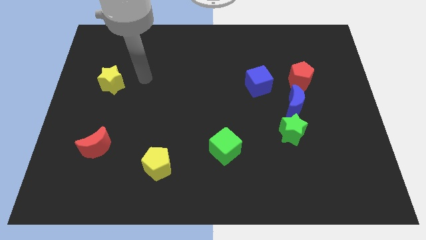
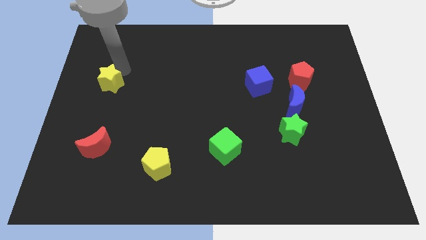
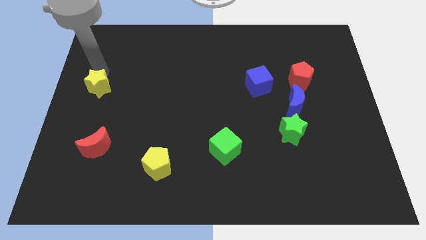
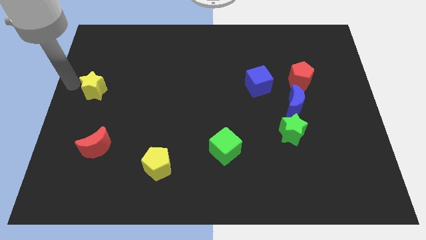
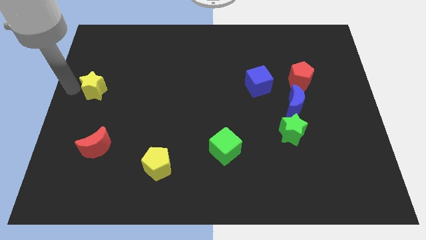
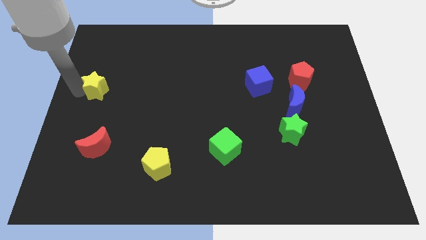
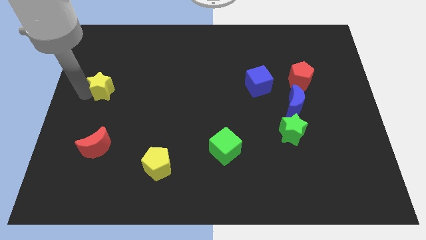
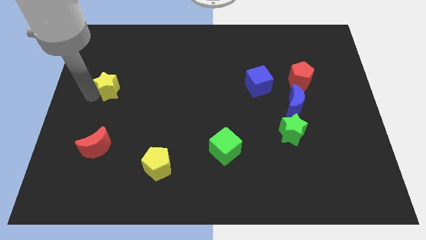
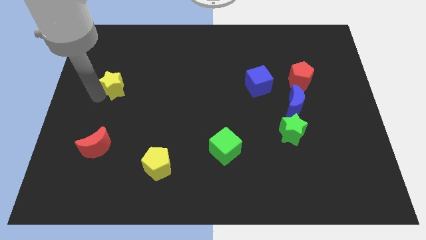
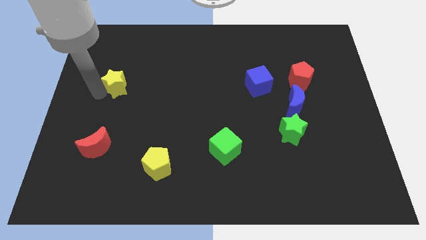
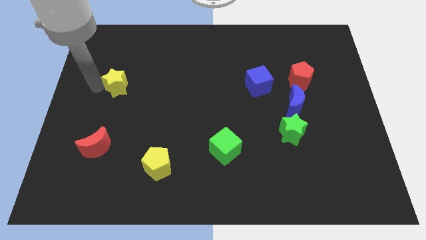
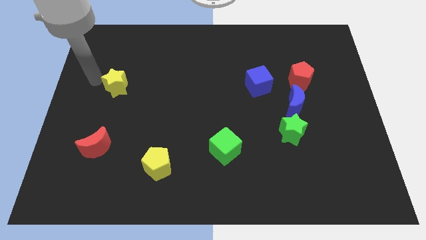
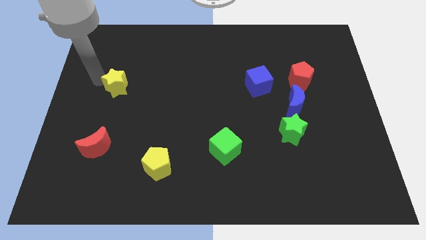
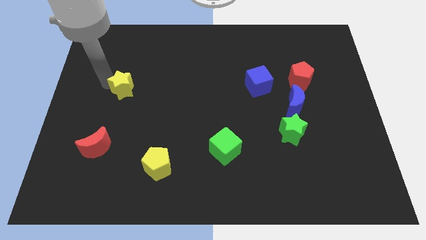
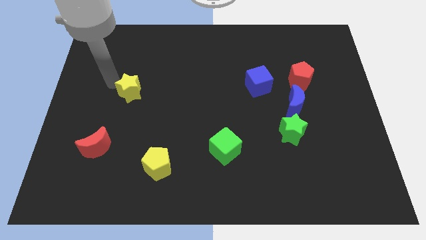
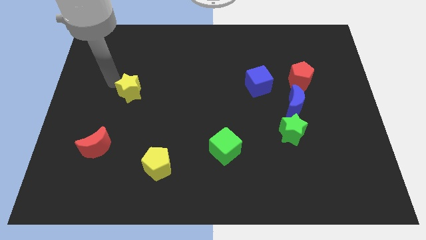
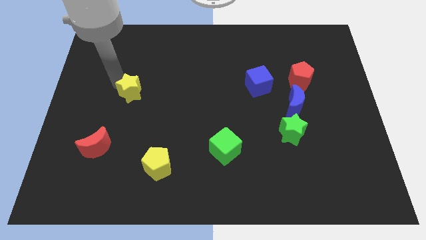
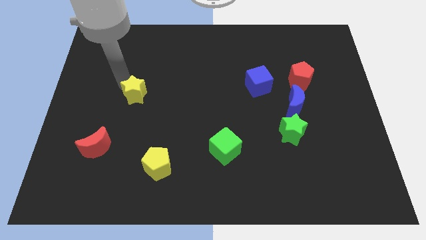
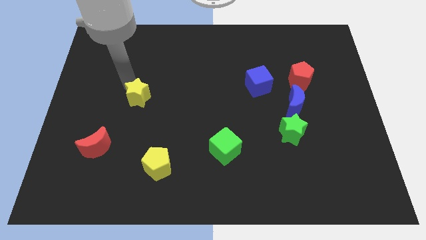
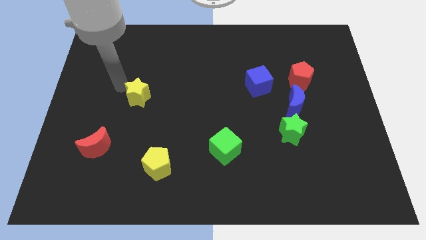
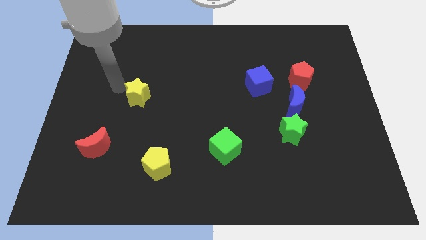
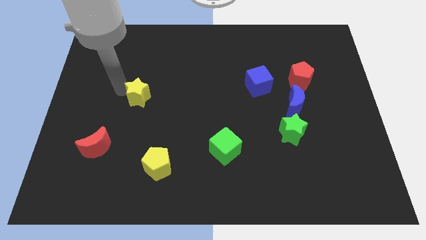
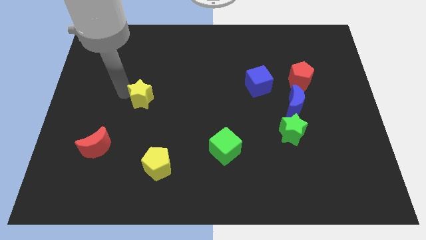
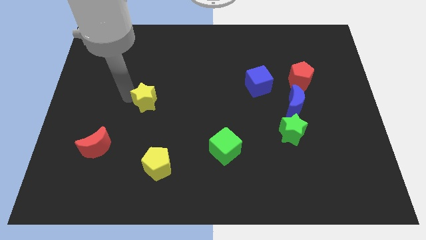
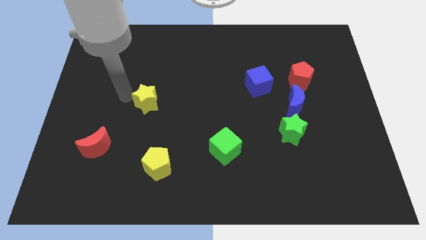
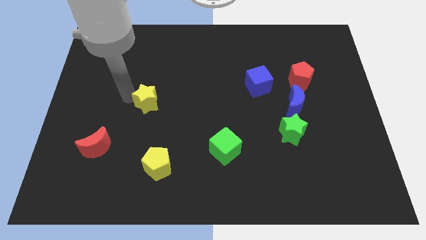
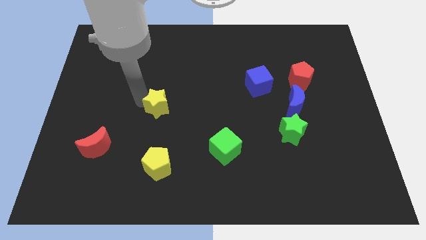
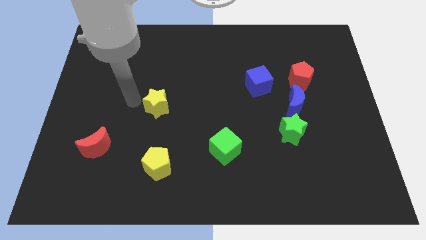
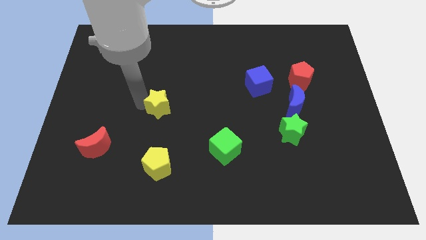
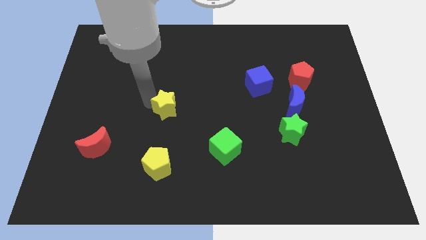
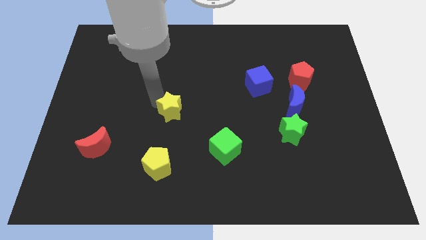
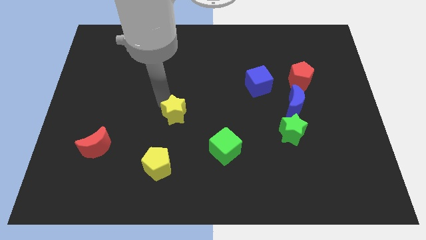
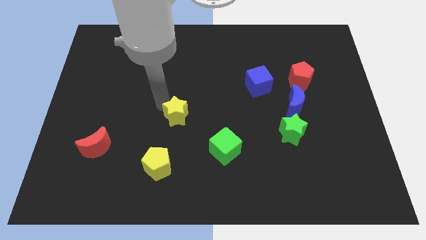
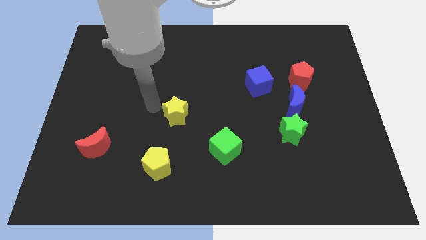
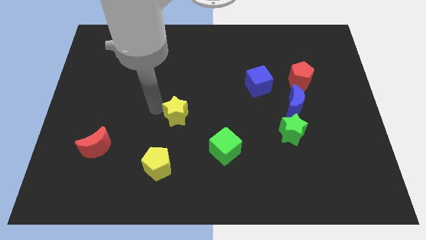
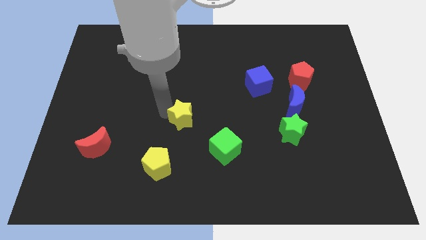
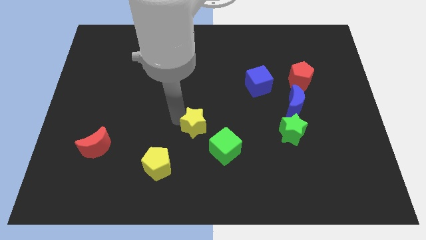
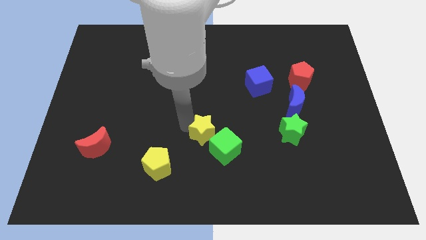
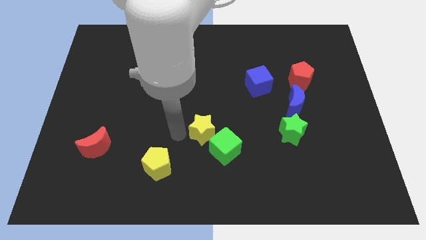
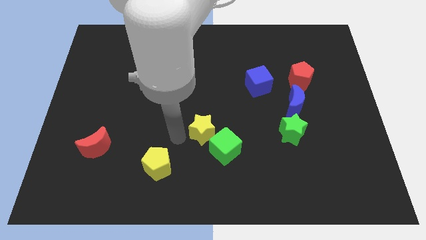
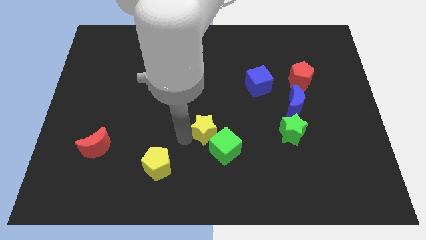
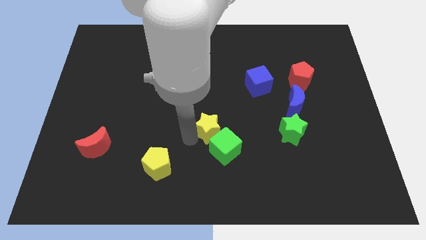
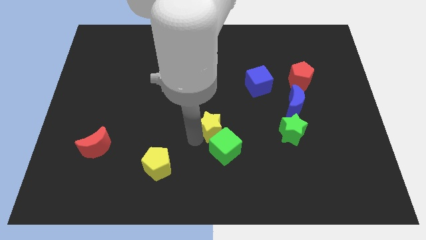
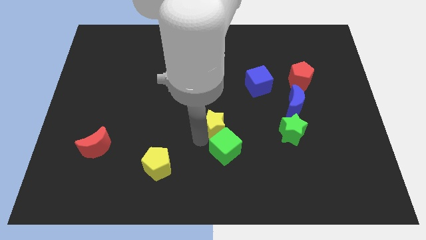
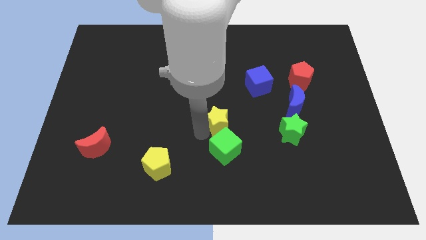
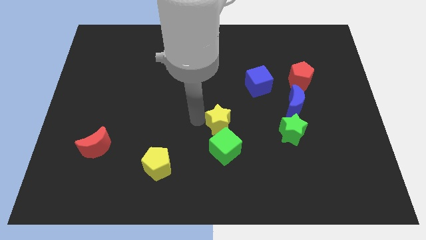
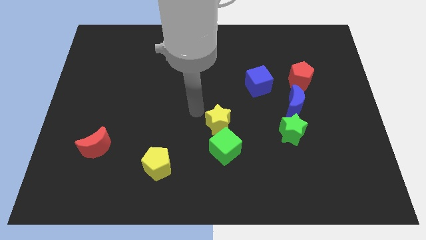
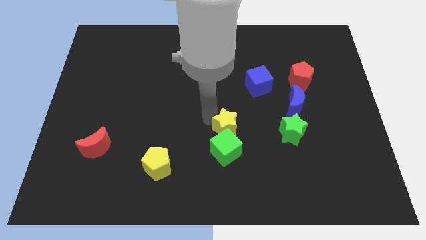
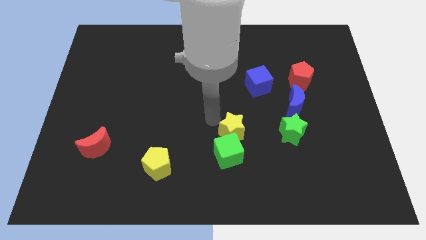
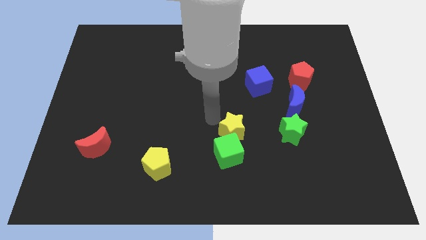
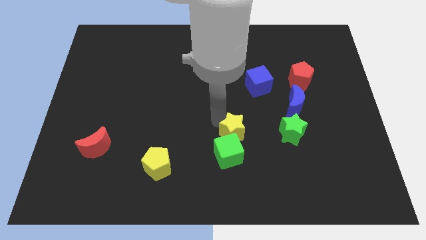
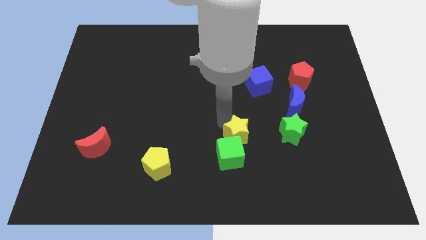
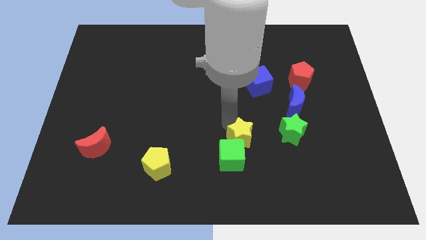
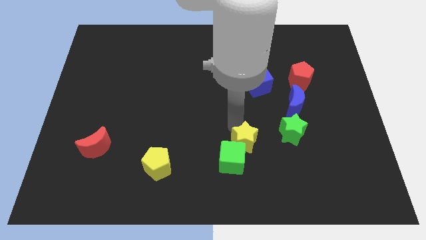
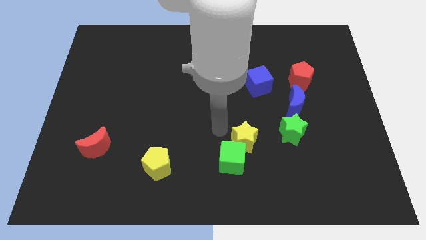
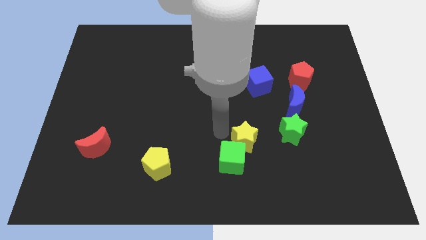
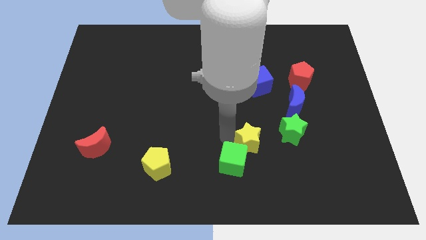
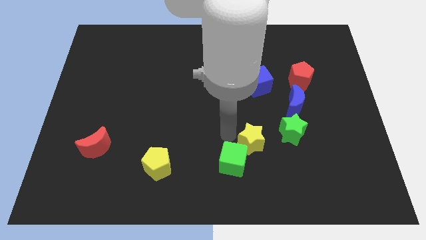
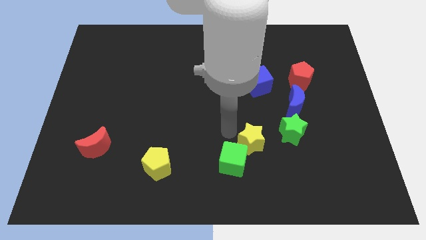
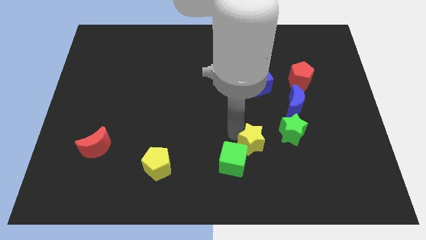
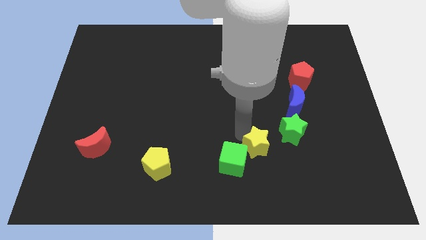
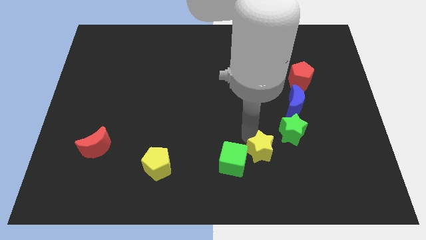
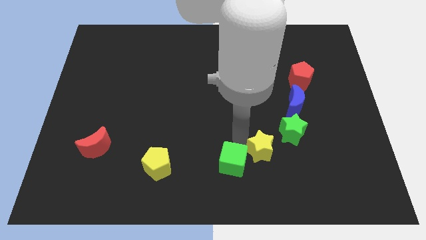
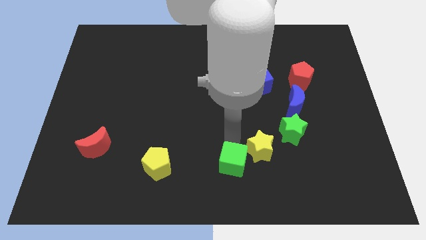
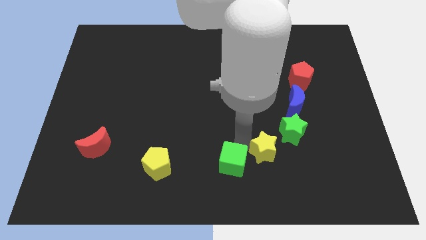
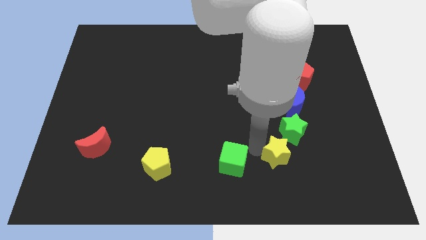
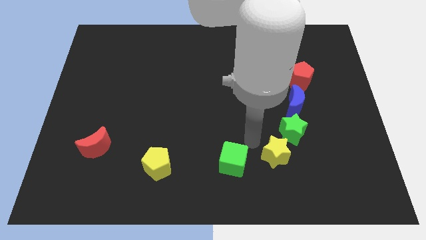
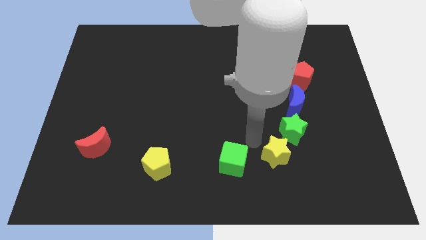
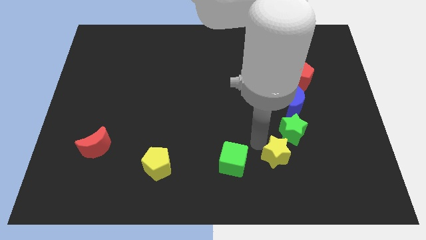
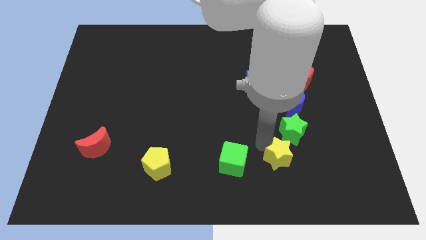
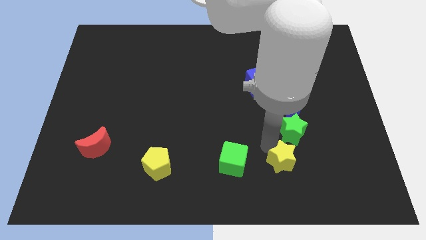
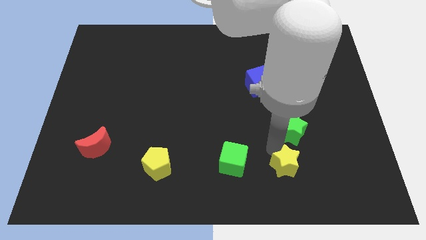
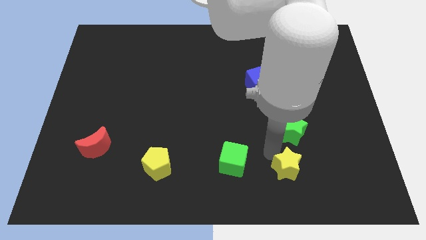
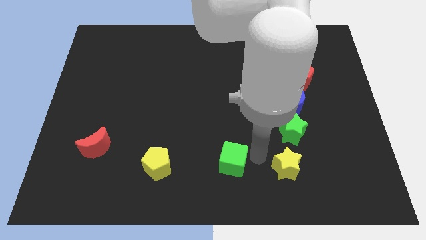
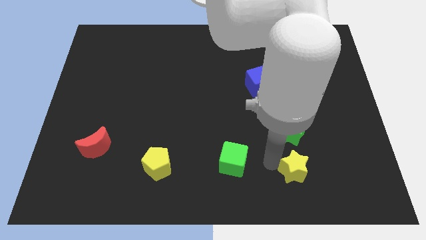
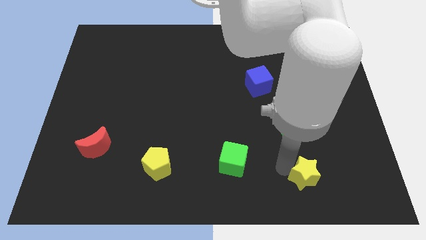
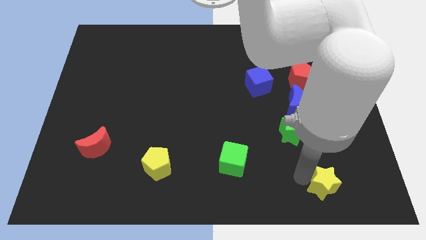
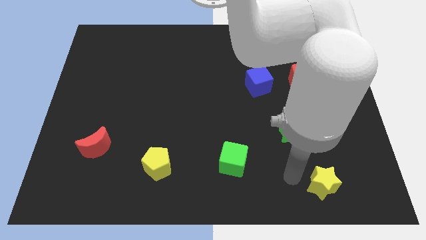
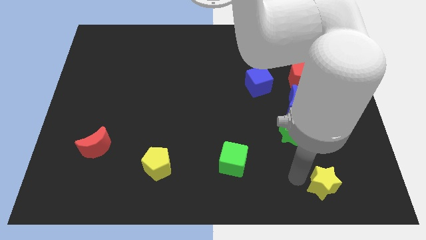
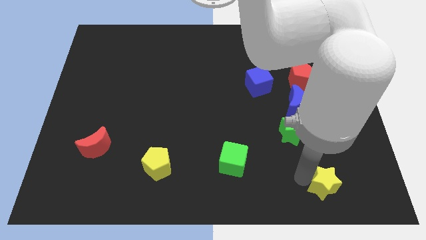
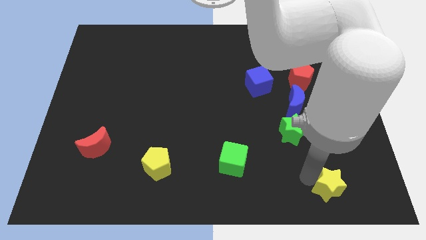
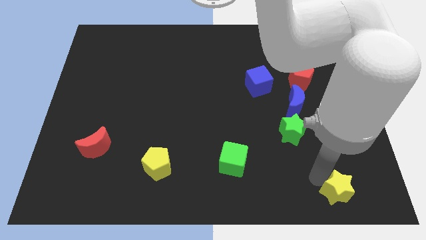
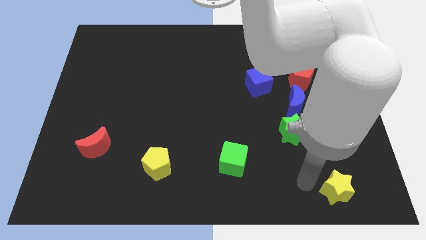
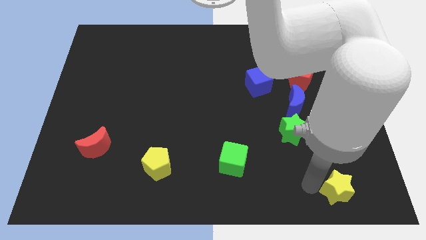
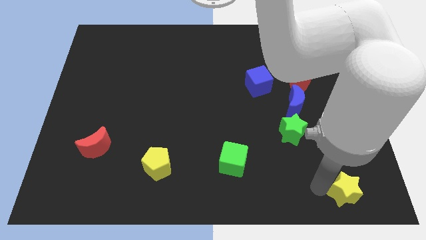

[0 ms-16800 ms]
slide the yellow star to the lower right corner
